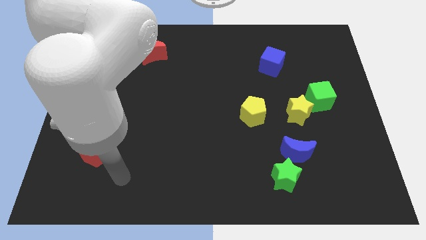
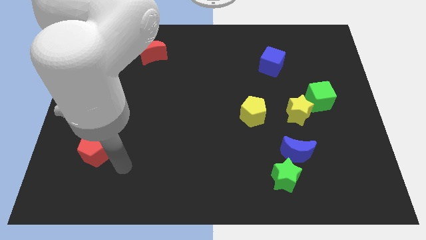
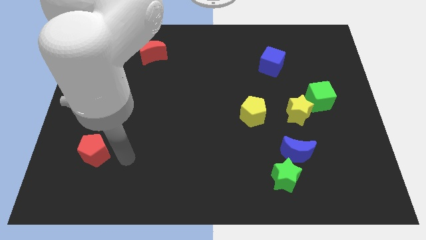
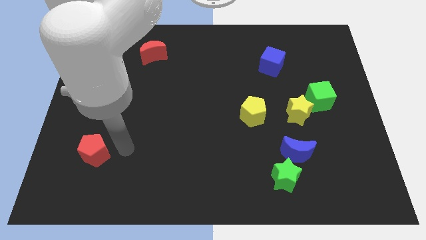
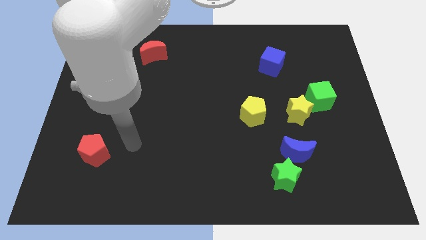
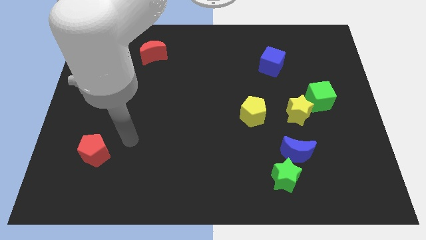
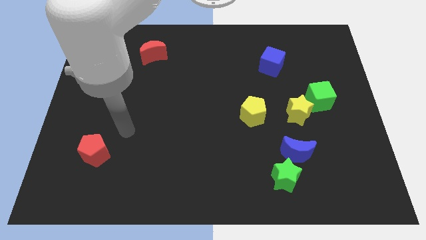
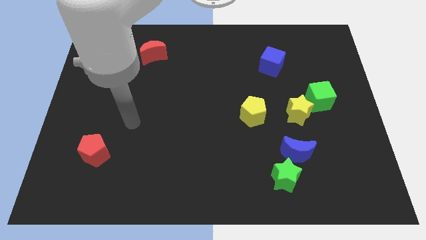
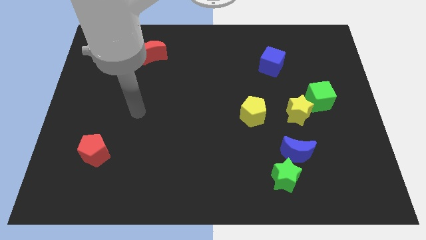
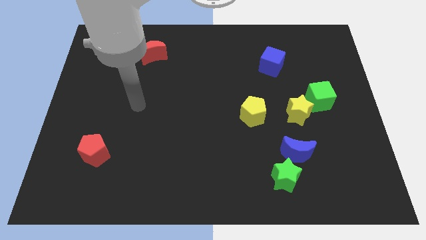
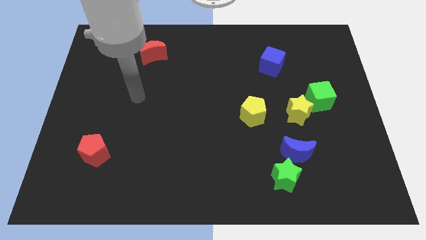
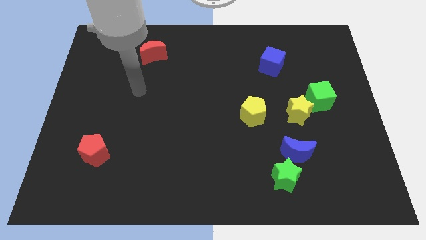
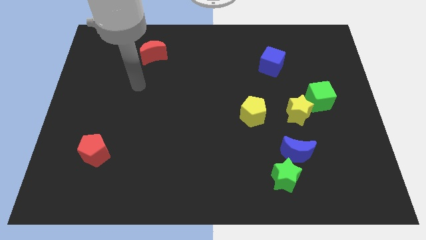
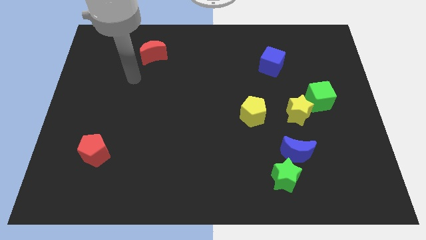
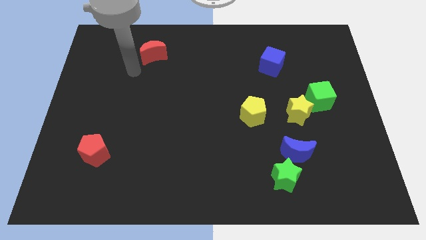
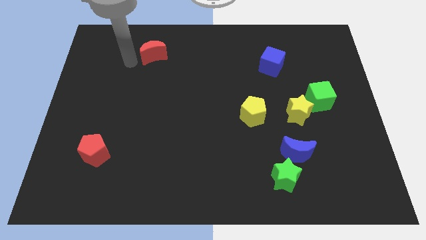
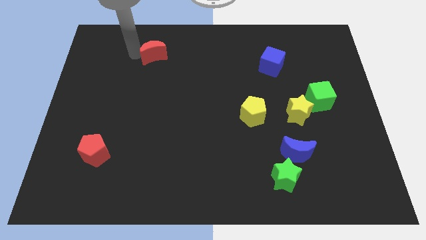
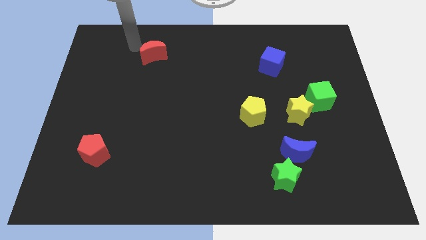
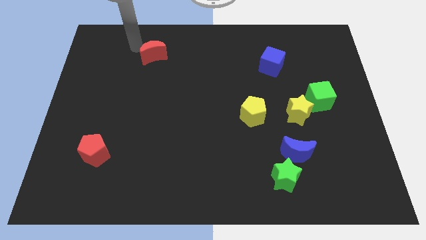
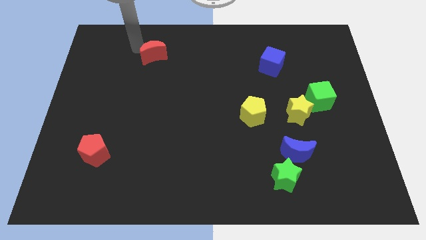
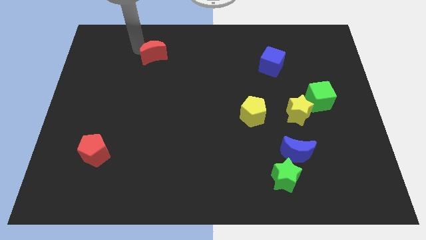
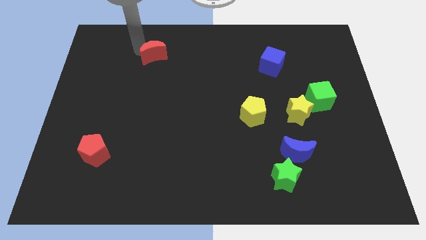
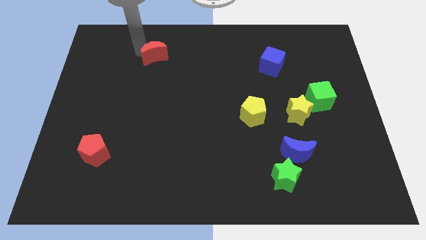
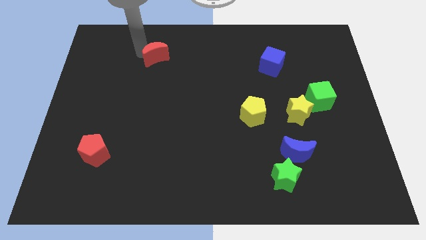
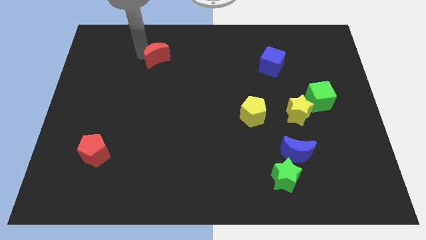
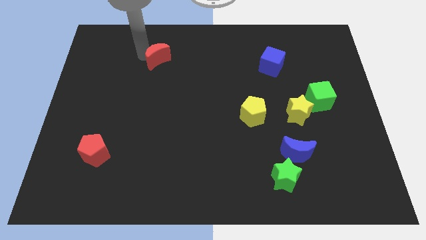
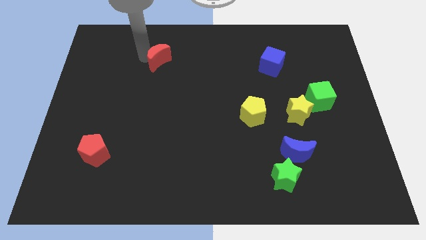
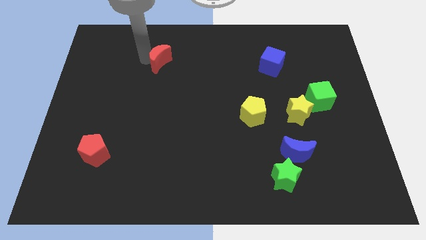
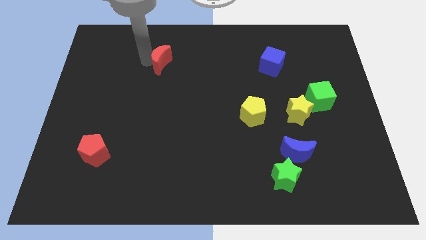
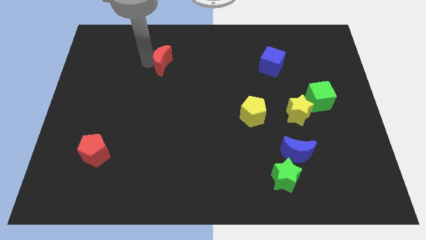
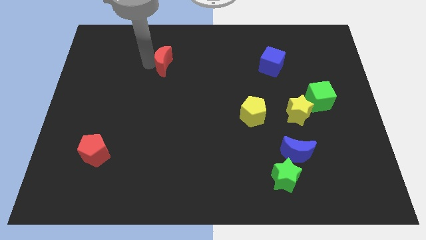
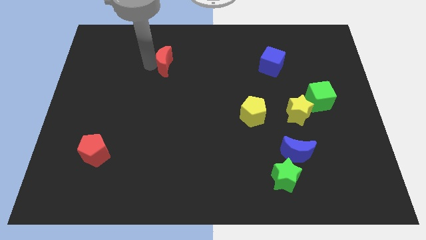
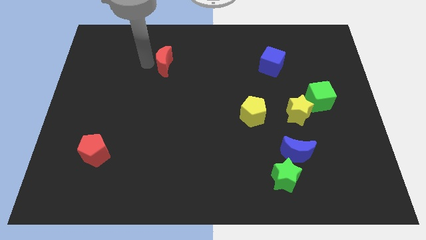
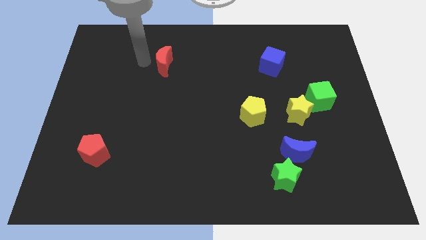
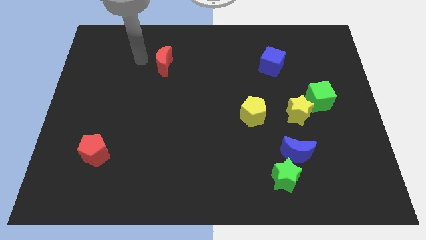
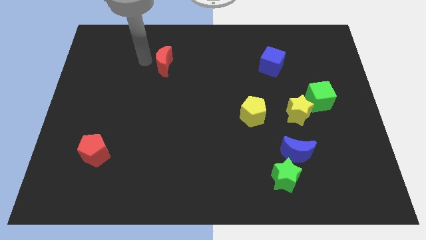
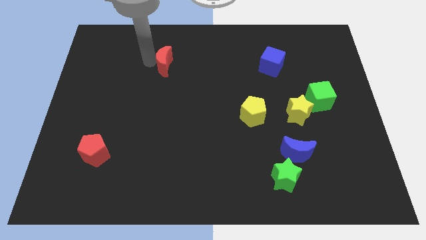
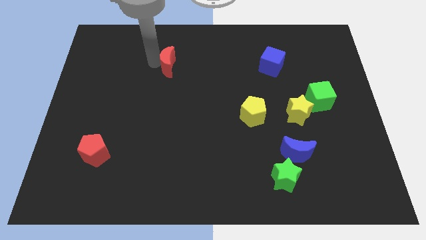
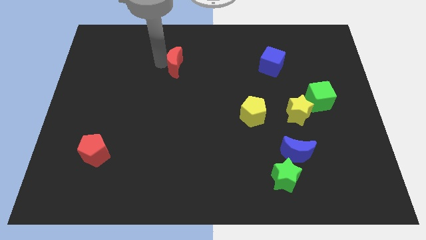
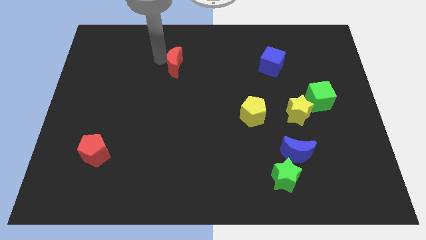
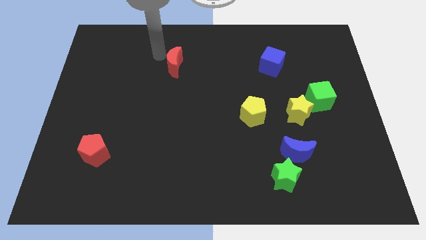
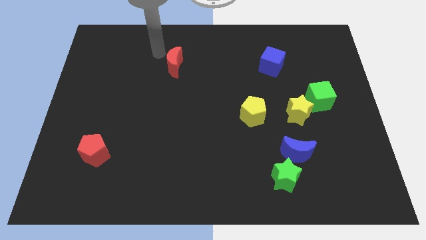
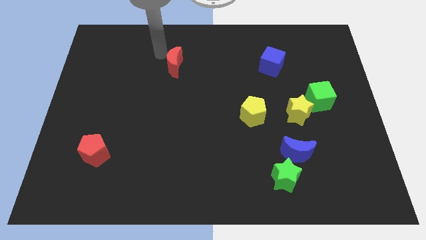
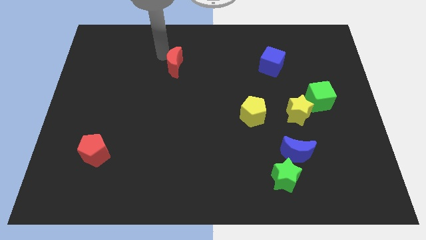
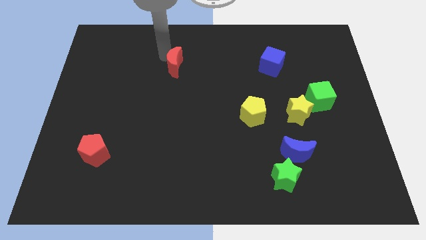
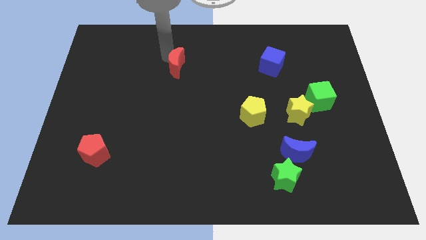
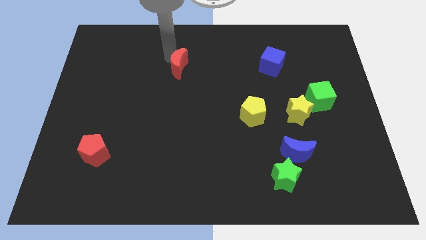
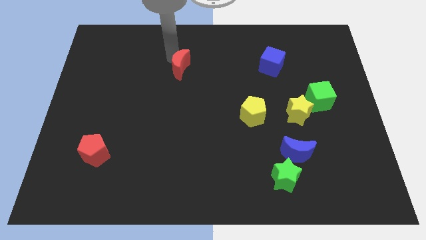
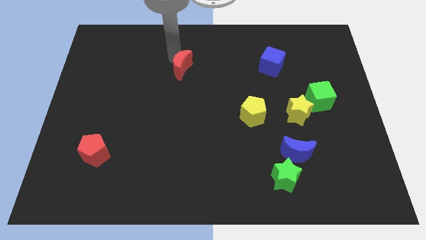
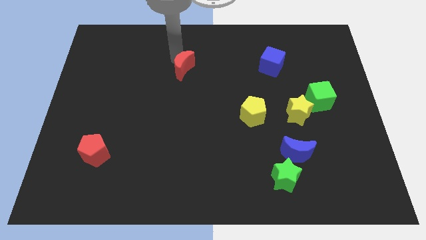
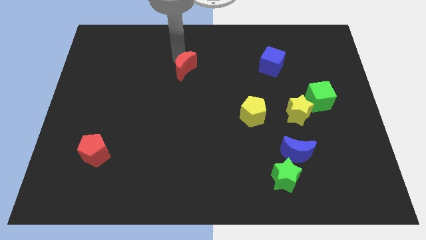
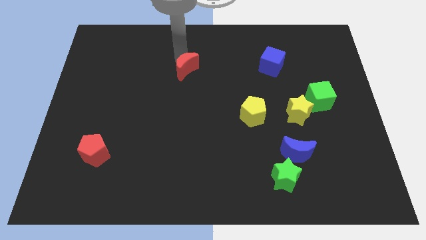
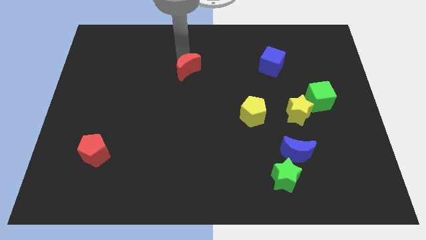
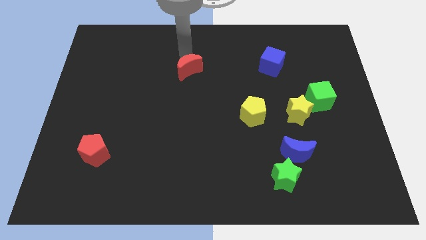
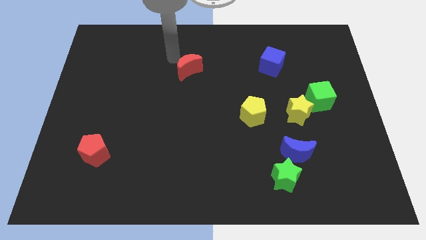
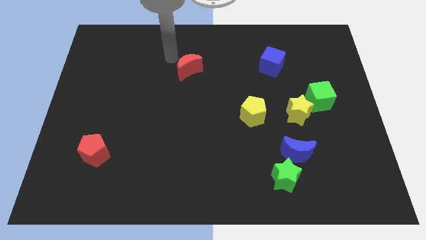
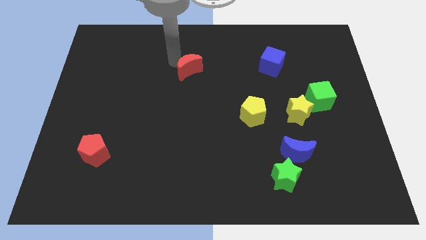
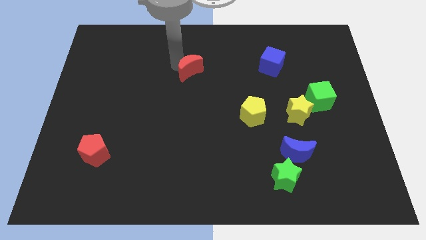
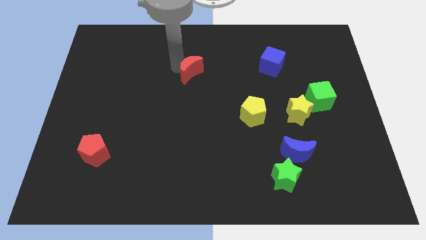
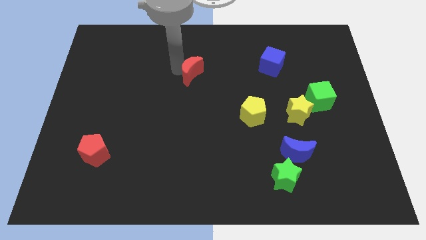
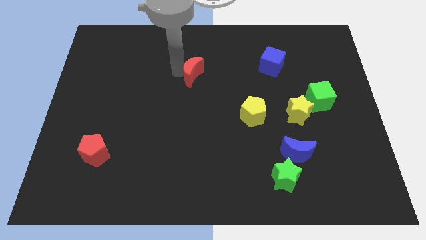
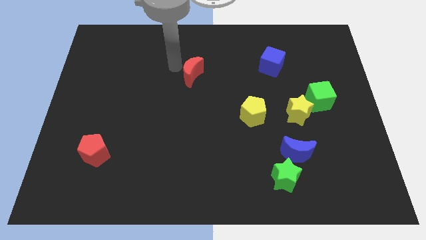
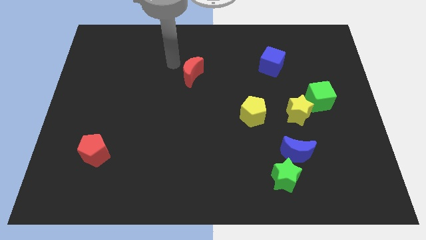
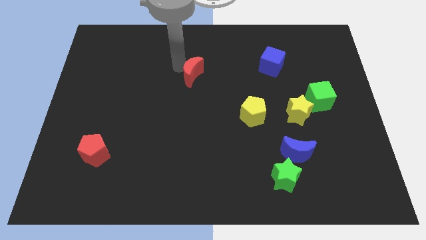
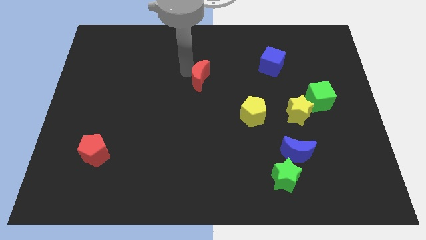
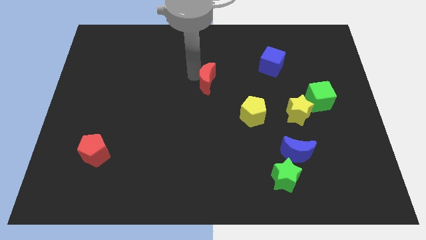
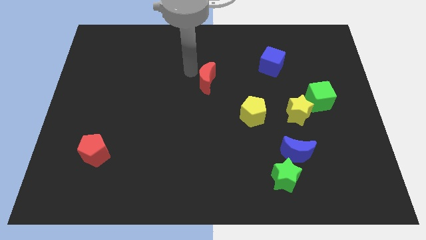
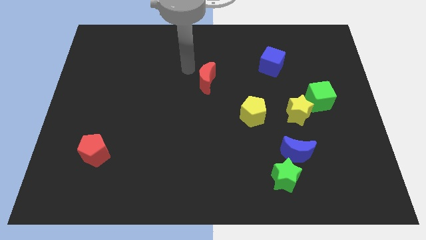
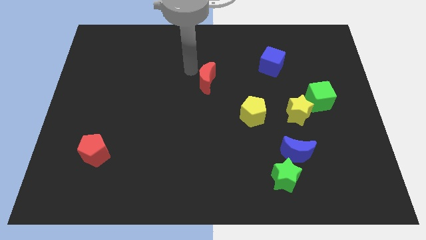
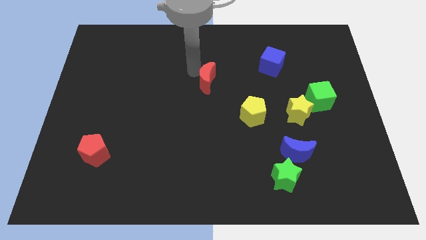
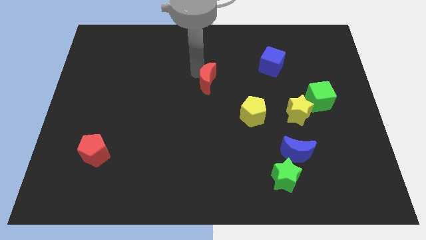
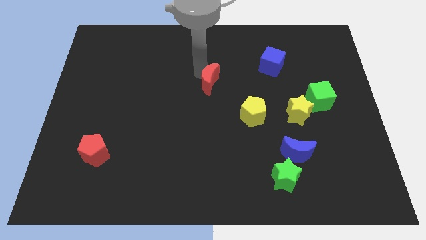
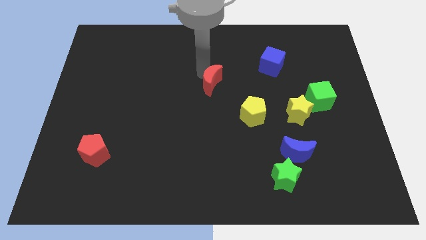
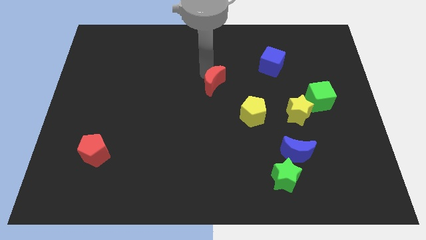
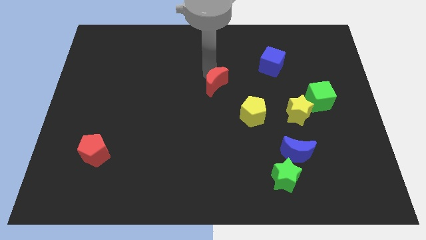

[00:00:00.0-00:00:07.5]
move the red moon to the top left of the yellow pentagon
